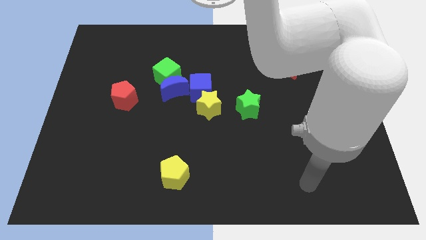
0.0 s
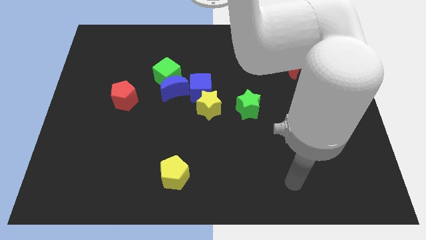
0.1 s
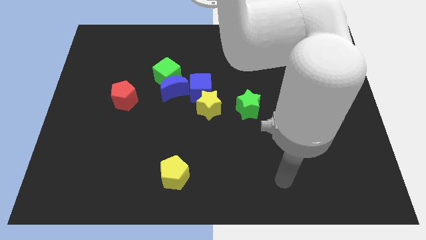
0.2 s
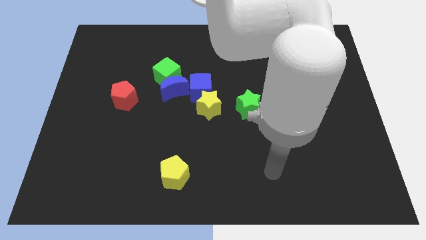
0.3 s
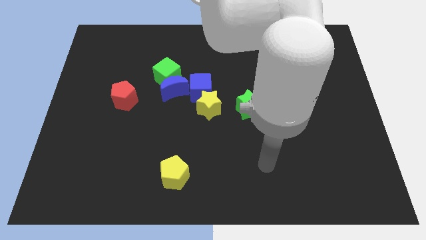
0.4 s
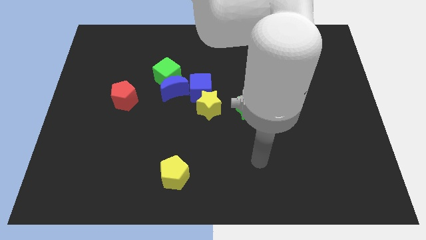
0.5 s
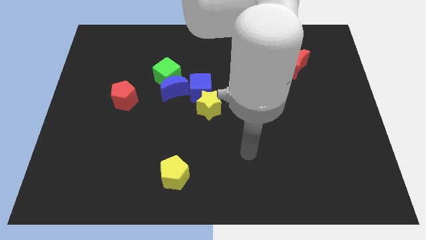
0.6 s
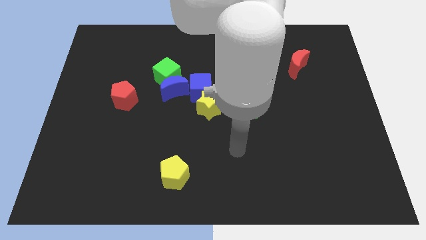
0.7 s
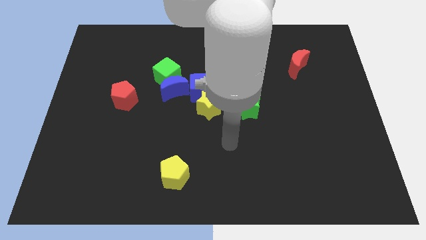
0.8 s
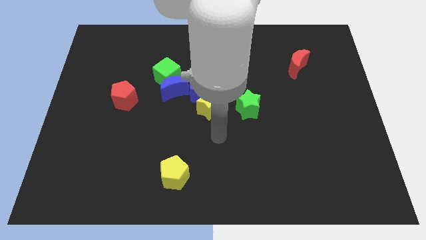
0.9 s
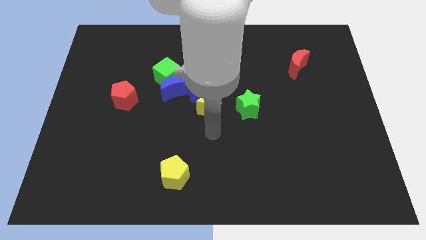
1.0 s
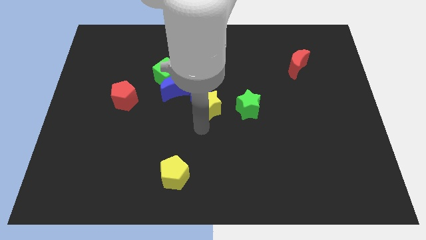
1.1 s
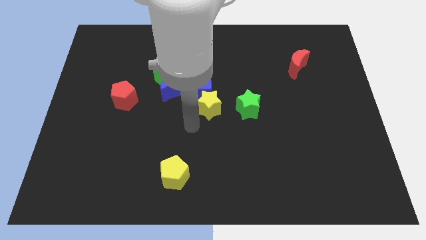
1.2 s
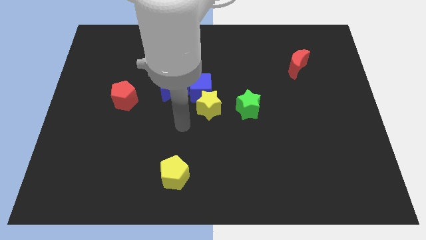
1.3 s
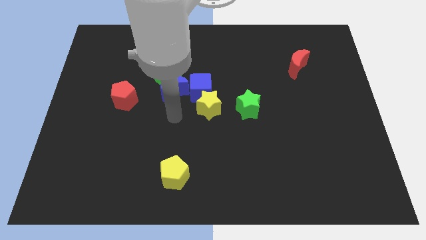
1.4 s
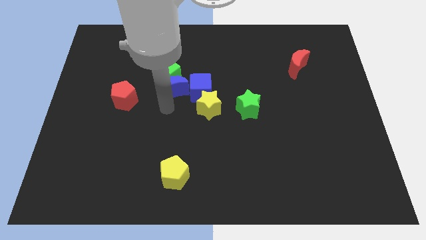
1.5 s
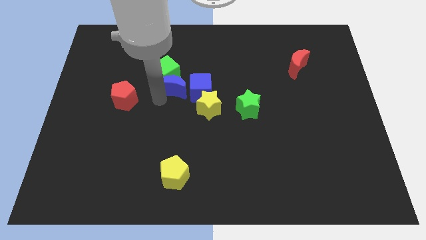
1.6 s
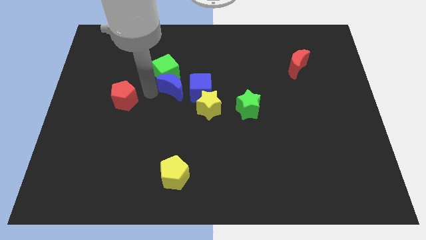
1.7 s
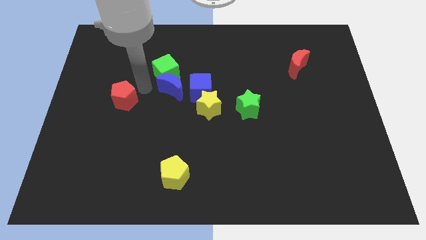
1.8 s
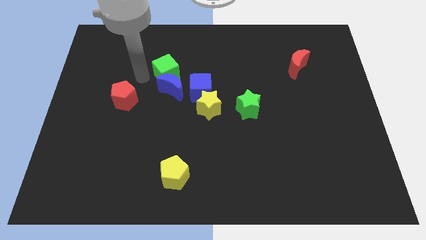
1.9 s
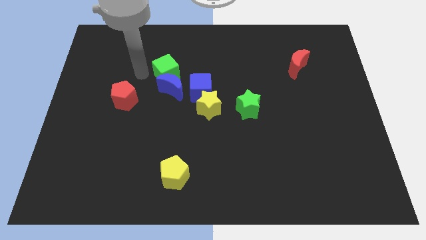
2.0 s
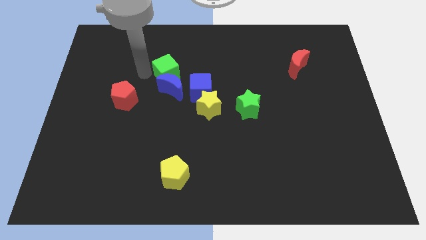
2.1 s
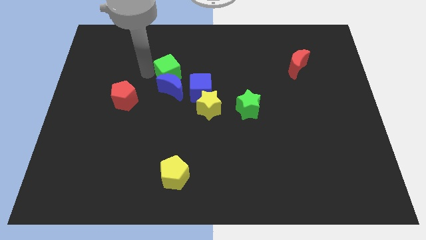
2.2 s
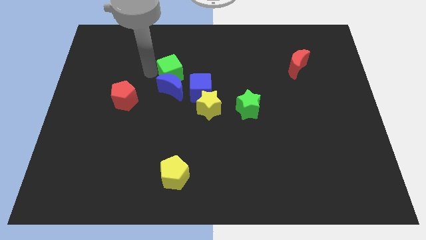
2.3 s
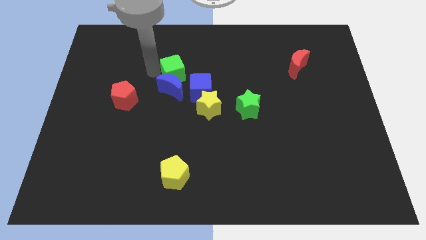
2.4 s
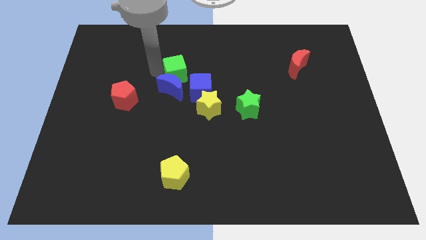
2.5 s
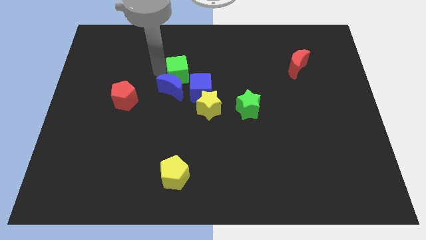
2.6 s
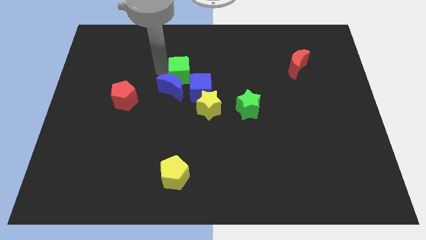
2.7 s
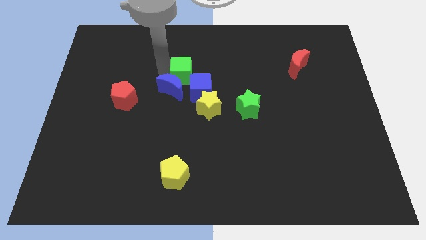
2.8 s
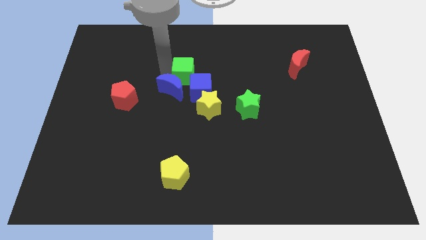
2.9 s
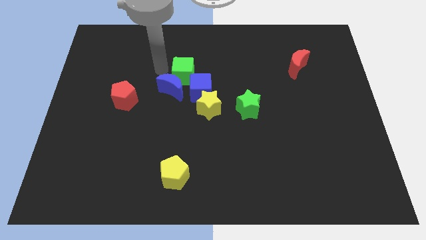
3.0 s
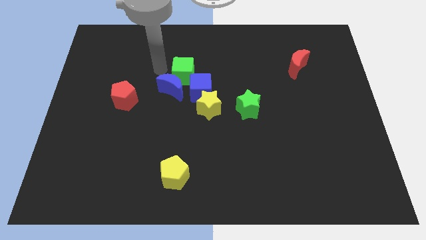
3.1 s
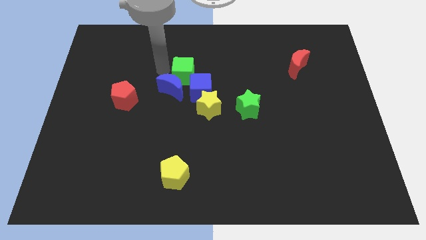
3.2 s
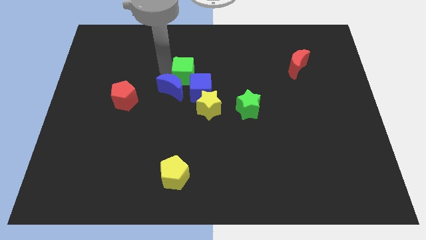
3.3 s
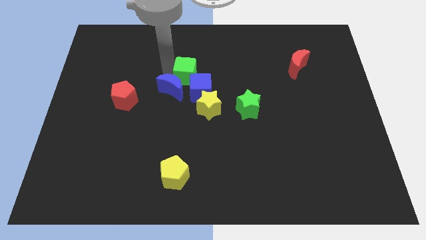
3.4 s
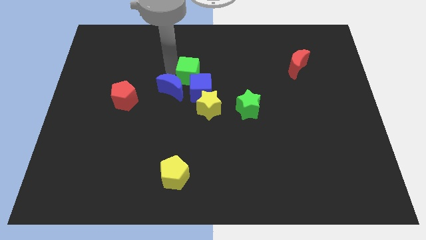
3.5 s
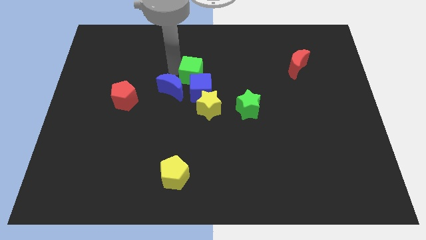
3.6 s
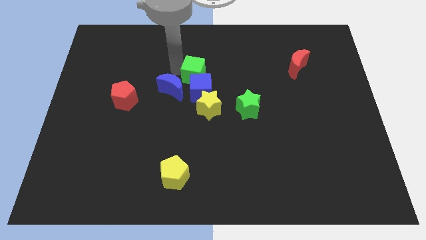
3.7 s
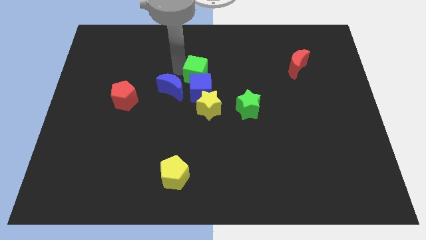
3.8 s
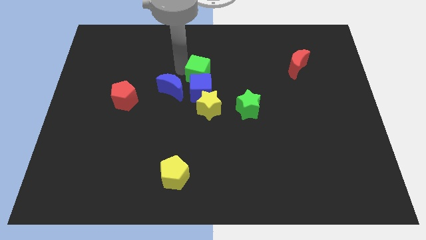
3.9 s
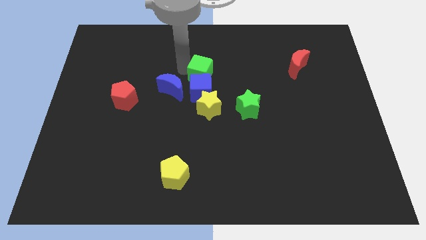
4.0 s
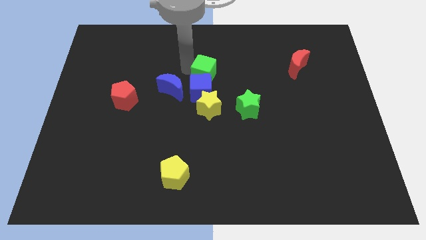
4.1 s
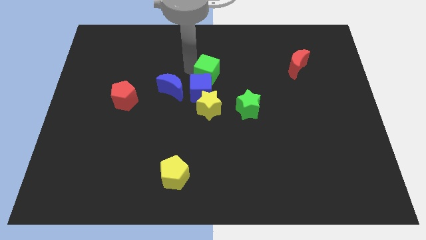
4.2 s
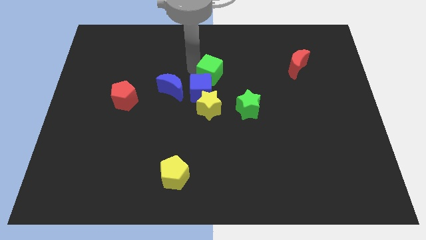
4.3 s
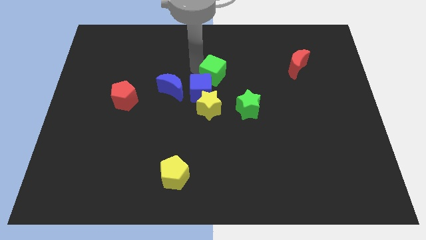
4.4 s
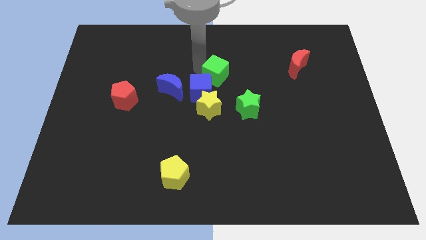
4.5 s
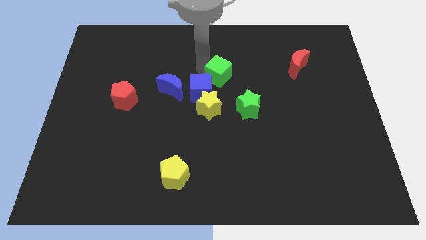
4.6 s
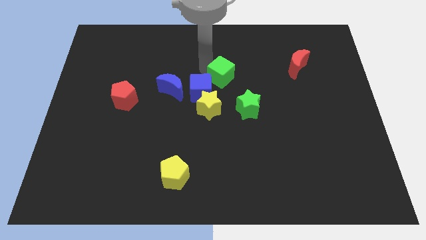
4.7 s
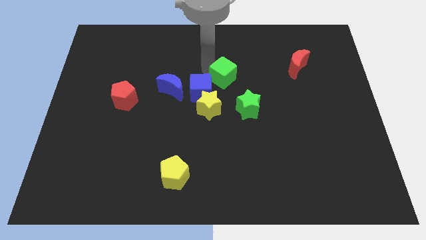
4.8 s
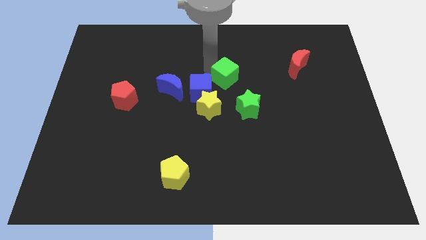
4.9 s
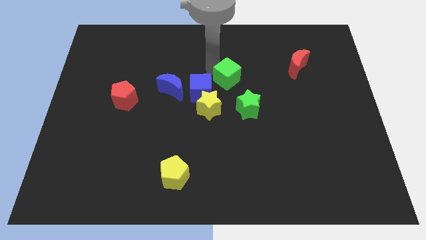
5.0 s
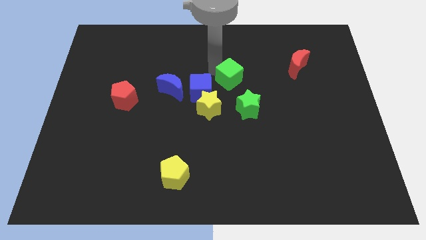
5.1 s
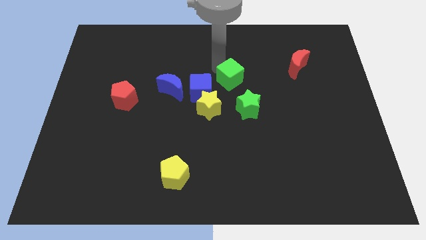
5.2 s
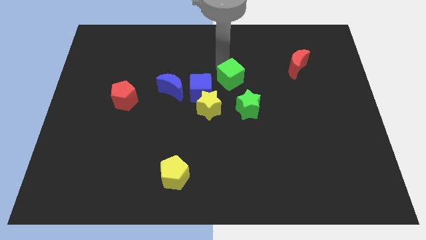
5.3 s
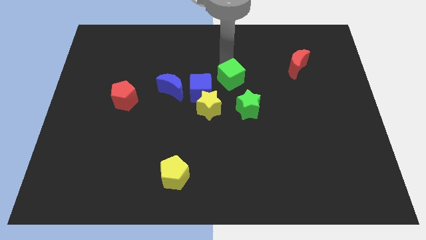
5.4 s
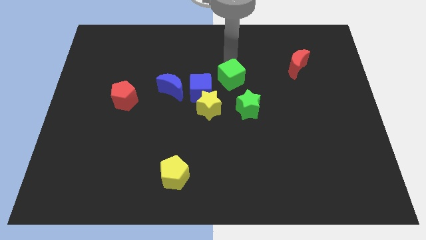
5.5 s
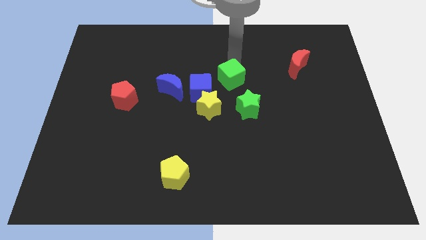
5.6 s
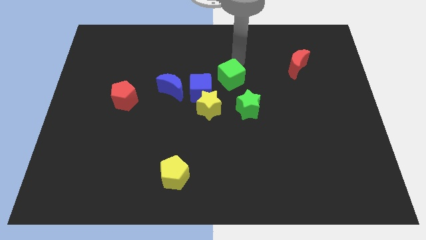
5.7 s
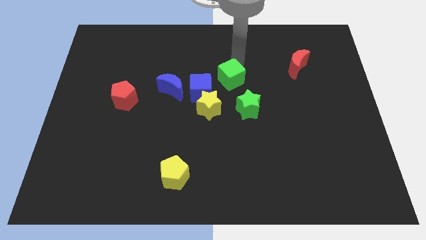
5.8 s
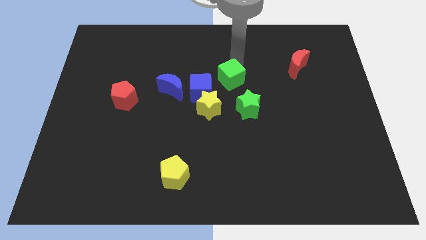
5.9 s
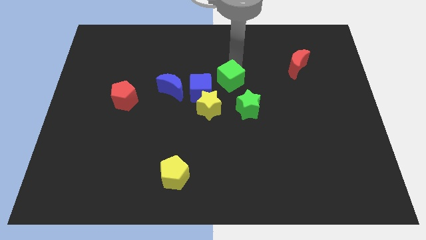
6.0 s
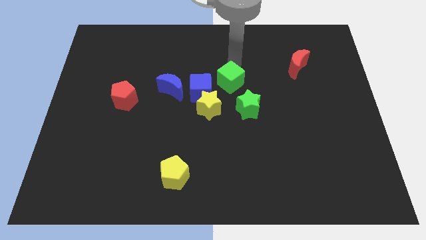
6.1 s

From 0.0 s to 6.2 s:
move the green cube somewhat downwards and right

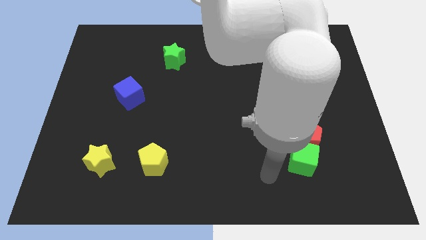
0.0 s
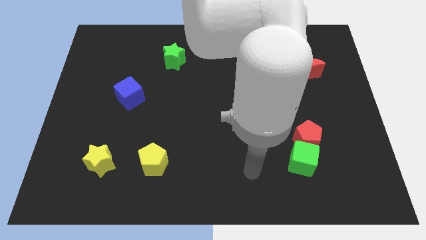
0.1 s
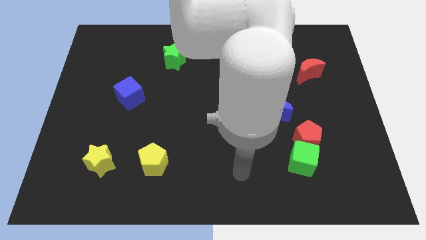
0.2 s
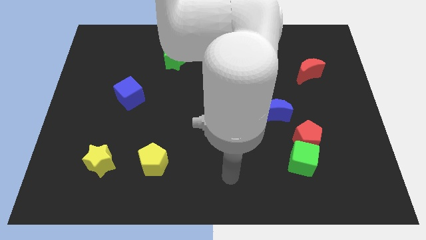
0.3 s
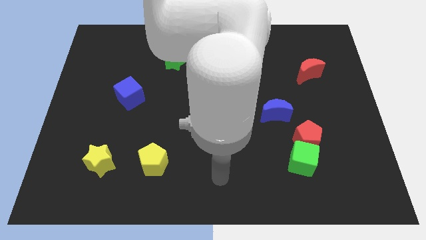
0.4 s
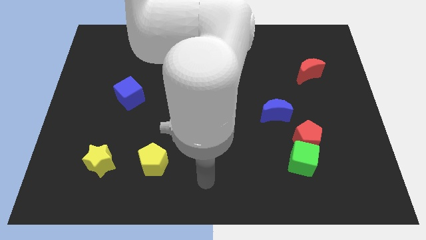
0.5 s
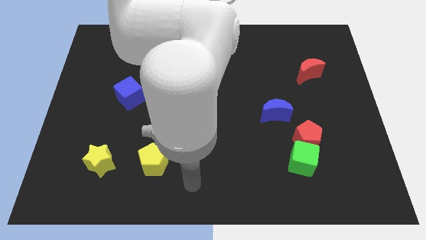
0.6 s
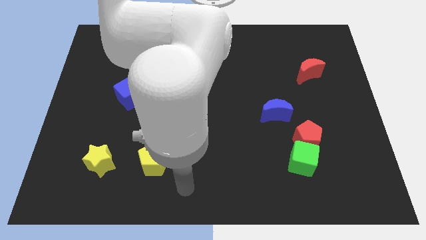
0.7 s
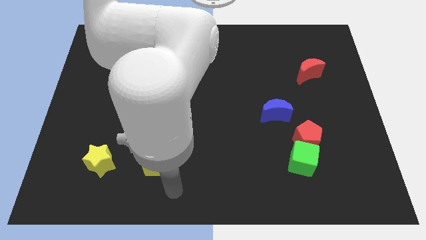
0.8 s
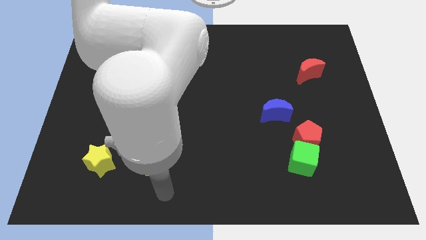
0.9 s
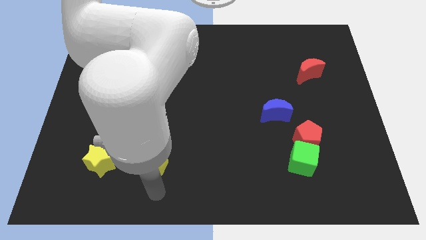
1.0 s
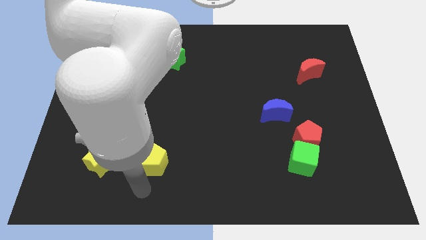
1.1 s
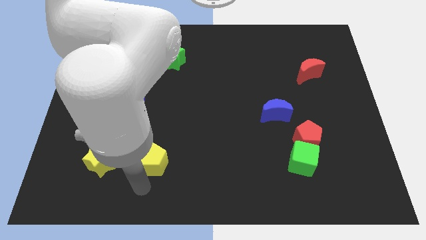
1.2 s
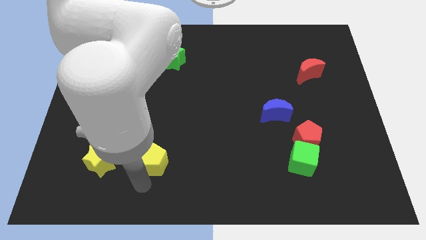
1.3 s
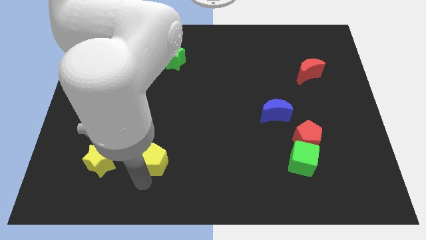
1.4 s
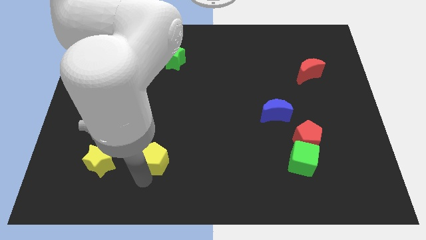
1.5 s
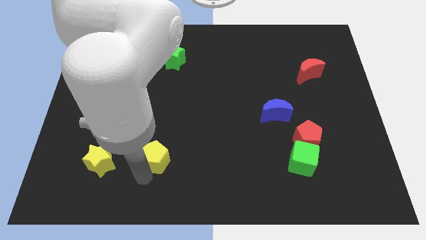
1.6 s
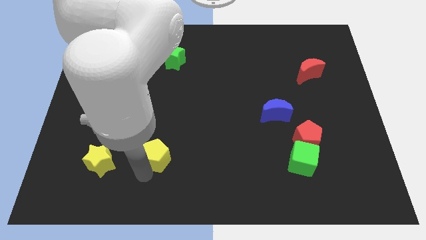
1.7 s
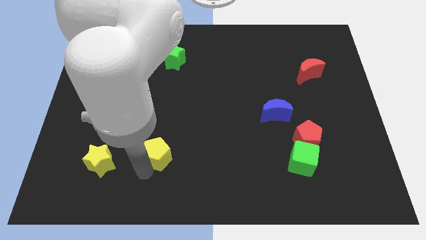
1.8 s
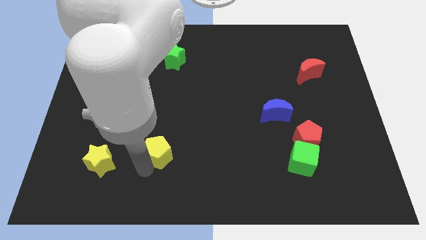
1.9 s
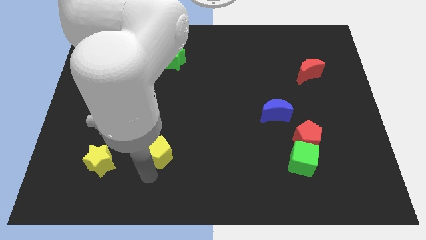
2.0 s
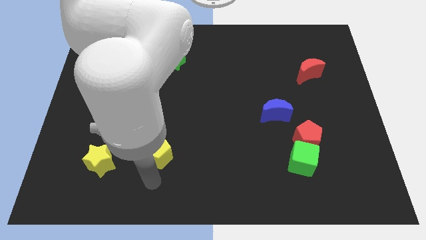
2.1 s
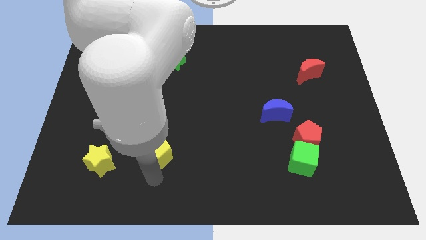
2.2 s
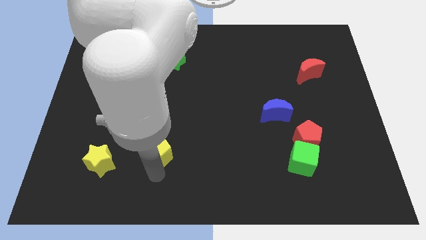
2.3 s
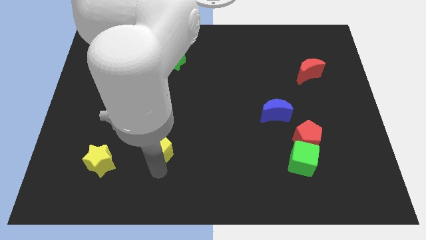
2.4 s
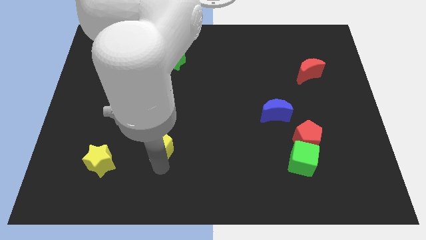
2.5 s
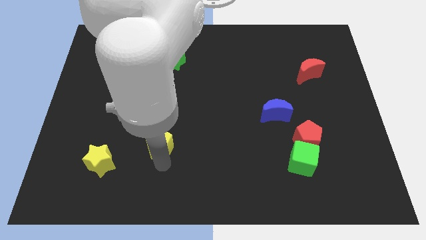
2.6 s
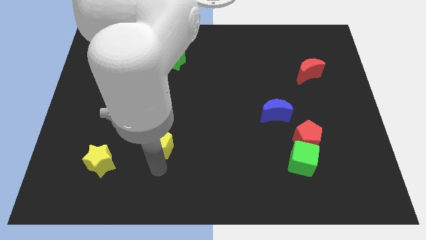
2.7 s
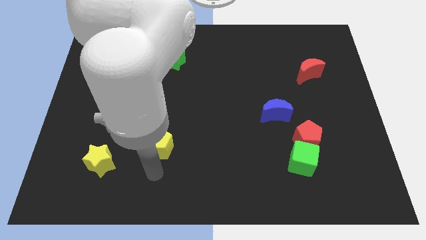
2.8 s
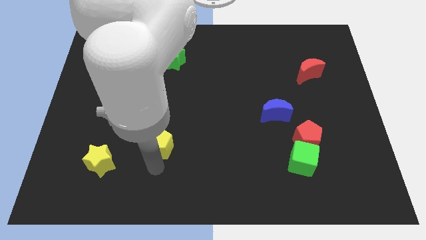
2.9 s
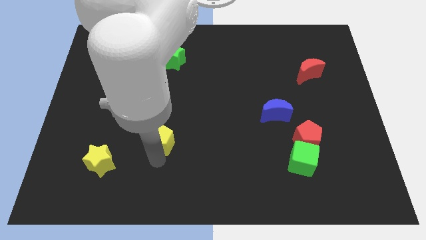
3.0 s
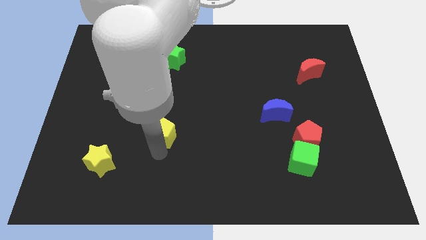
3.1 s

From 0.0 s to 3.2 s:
push the yellow pentagon up a bit
